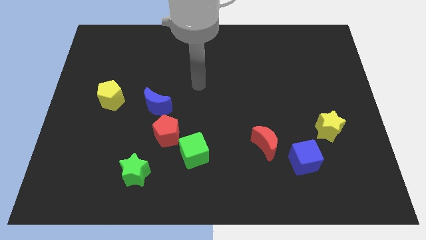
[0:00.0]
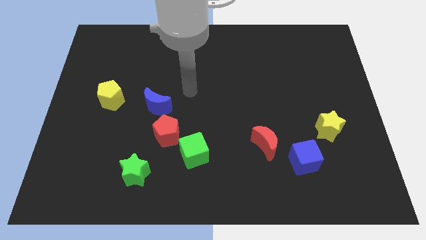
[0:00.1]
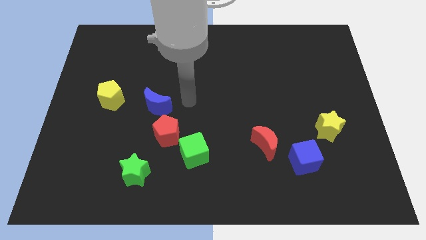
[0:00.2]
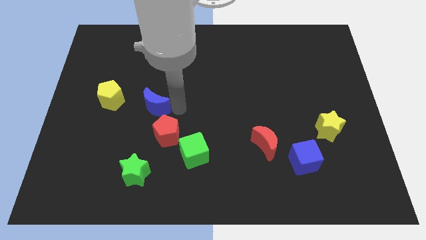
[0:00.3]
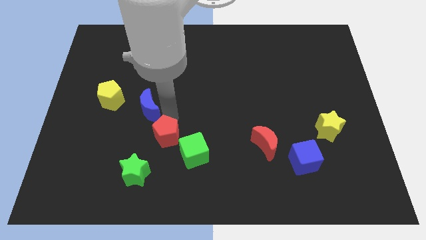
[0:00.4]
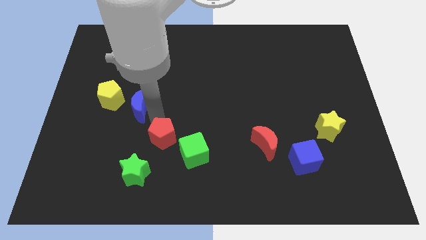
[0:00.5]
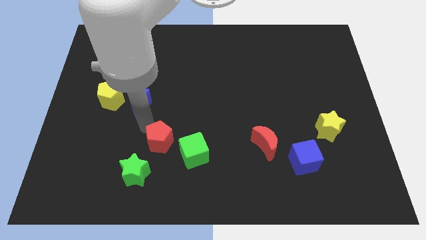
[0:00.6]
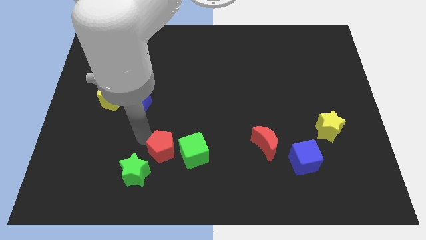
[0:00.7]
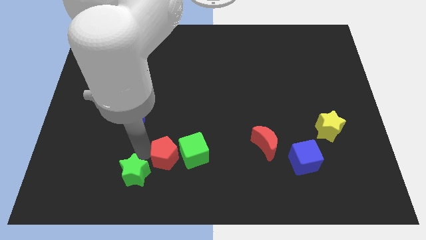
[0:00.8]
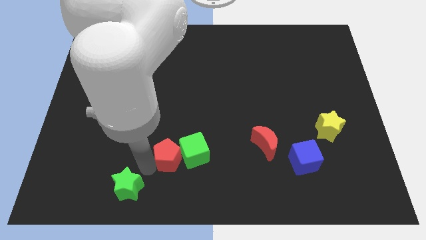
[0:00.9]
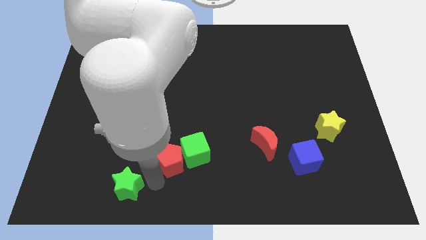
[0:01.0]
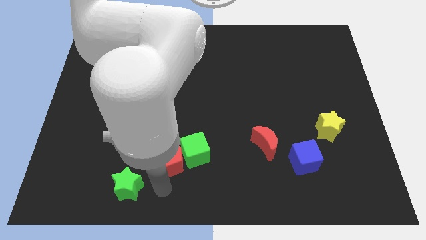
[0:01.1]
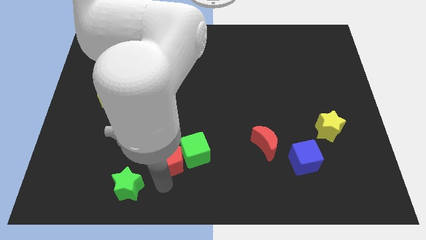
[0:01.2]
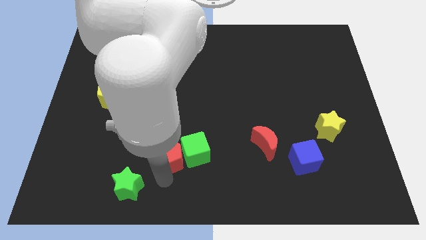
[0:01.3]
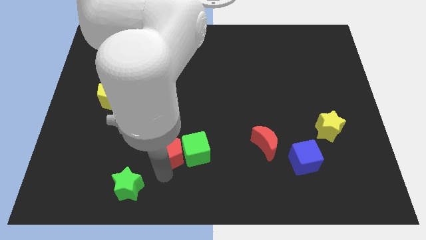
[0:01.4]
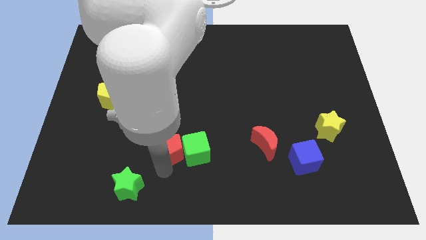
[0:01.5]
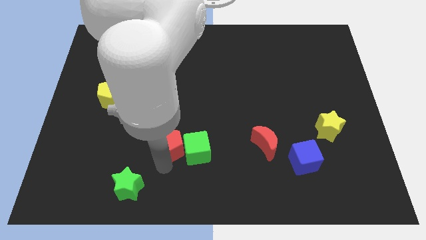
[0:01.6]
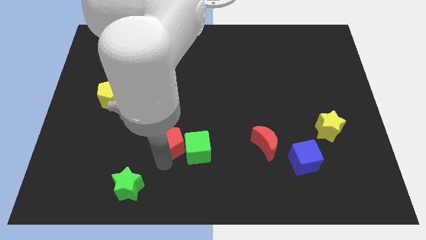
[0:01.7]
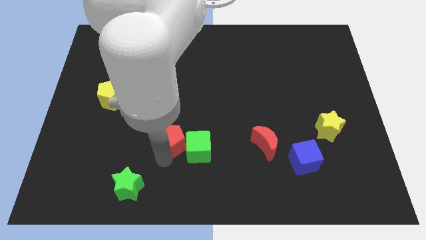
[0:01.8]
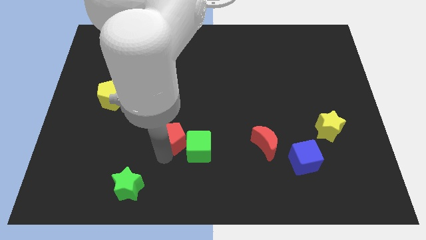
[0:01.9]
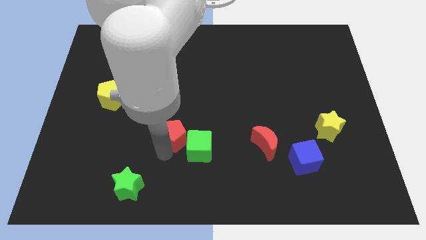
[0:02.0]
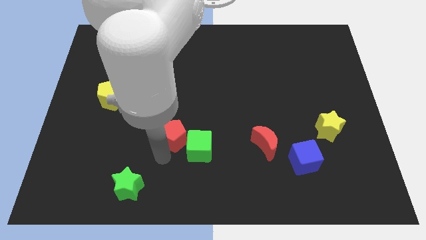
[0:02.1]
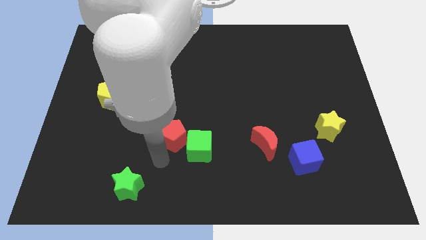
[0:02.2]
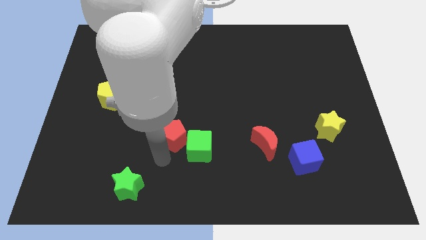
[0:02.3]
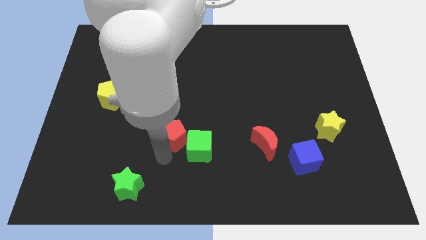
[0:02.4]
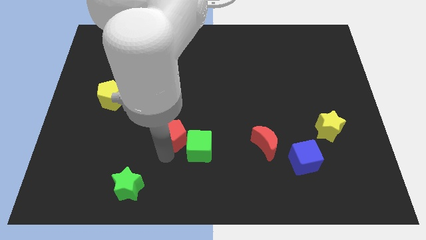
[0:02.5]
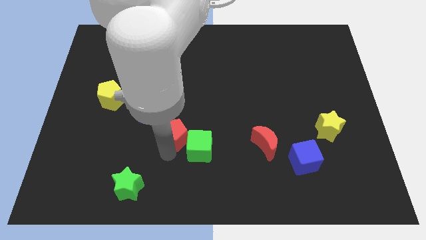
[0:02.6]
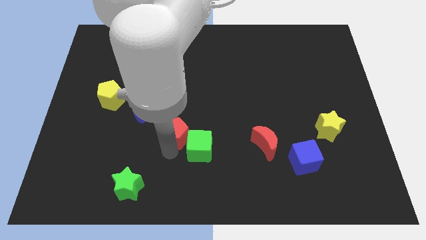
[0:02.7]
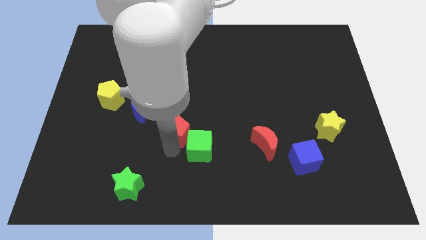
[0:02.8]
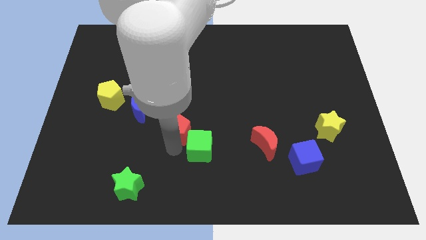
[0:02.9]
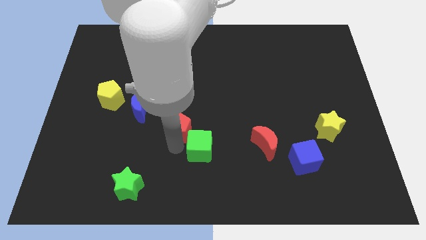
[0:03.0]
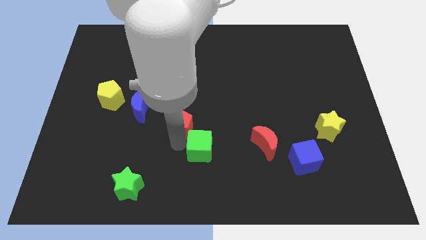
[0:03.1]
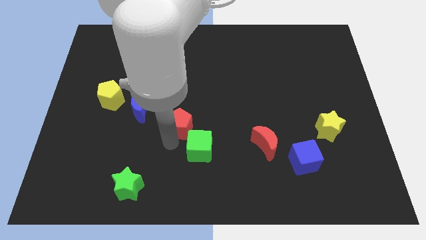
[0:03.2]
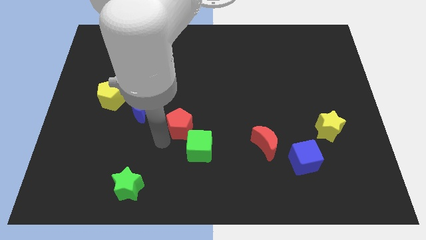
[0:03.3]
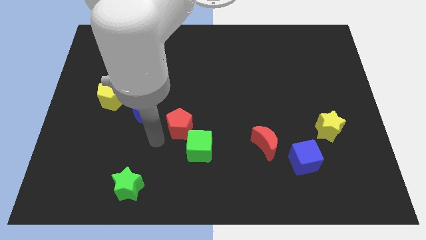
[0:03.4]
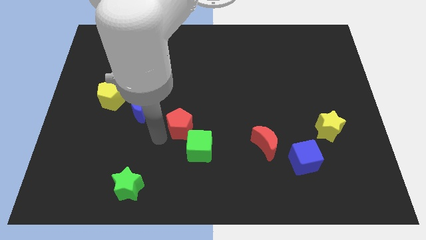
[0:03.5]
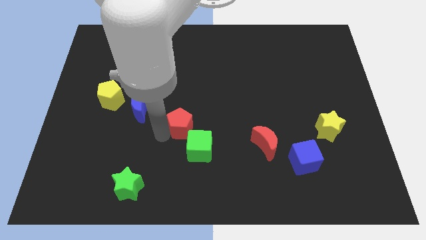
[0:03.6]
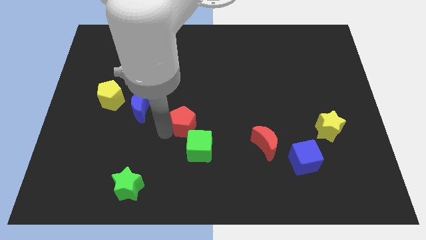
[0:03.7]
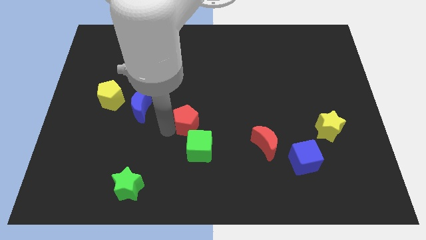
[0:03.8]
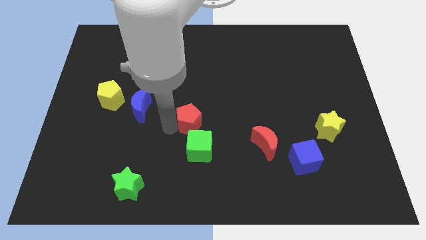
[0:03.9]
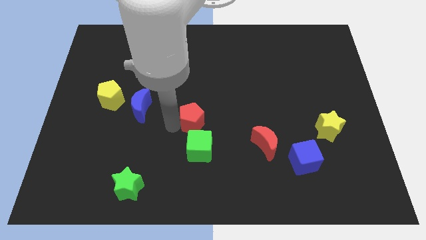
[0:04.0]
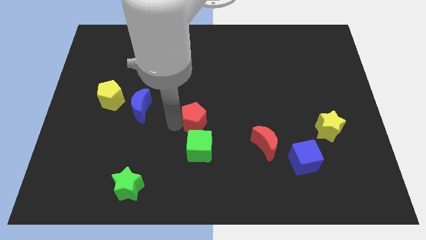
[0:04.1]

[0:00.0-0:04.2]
push the red pentagon up and to the right diagonally slightly

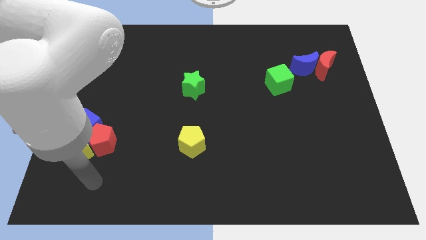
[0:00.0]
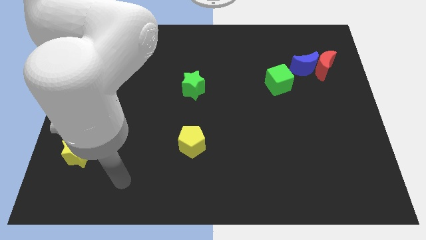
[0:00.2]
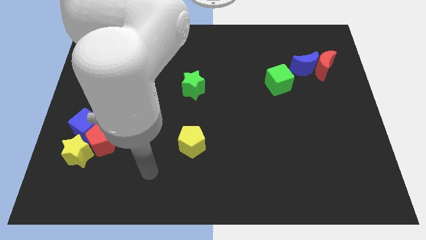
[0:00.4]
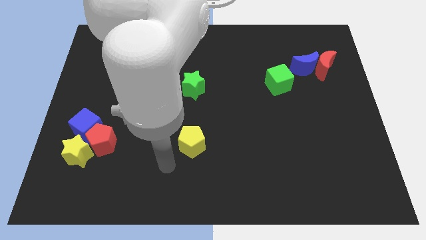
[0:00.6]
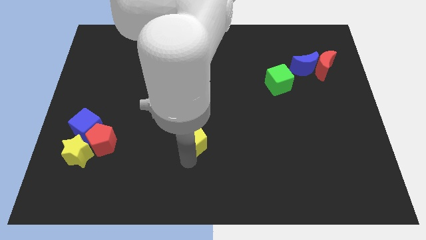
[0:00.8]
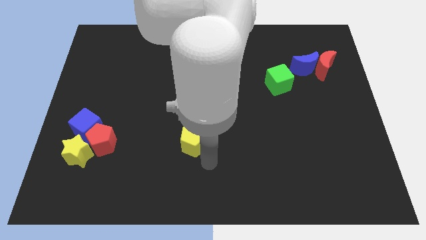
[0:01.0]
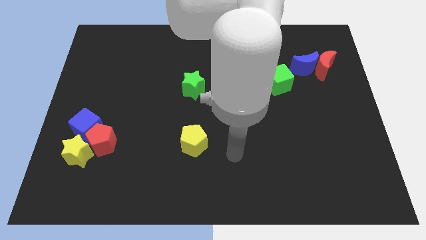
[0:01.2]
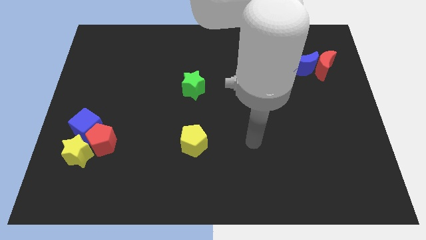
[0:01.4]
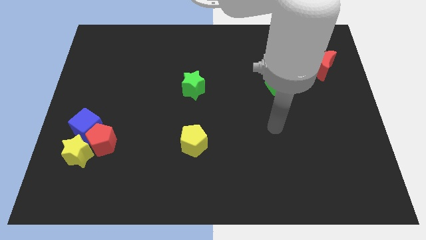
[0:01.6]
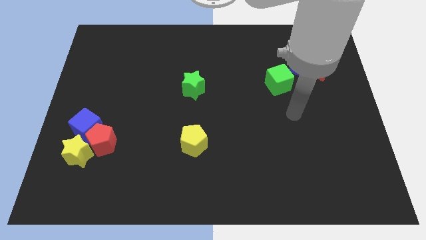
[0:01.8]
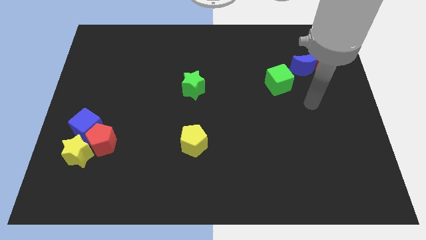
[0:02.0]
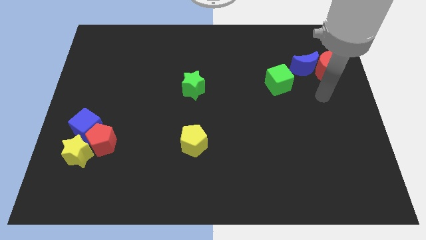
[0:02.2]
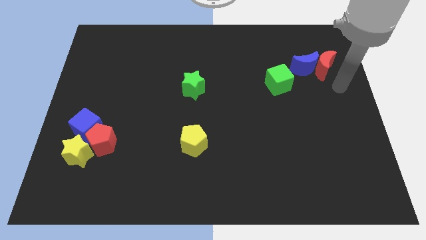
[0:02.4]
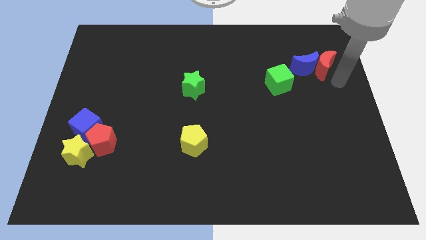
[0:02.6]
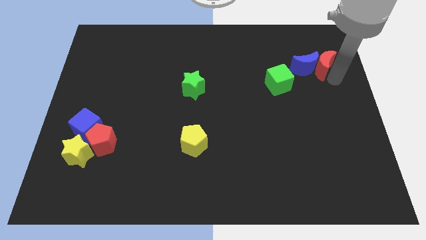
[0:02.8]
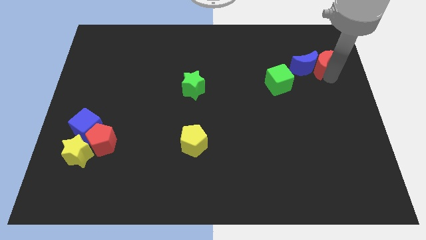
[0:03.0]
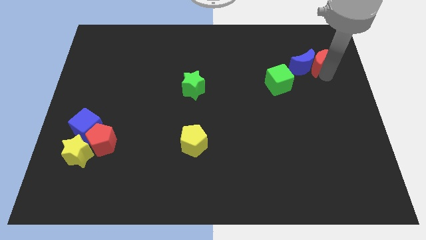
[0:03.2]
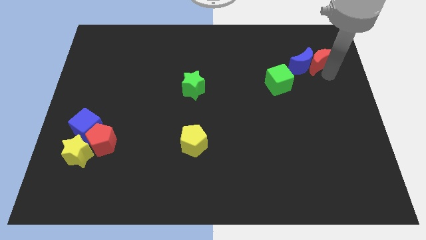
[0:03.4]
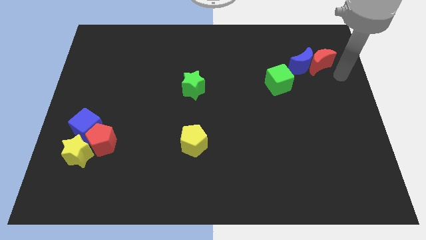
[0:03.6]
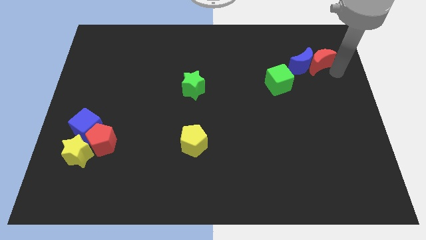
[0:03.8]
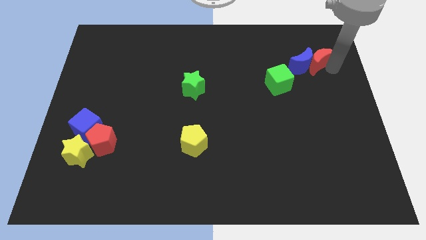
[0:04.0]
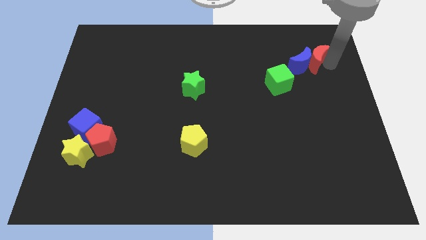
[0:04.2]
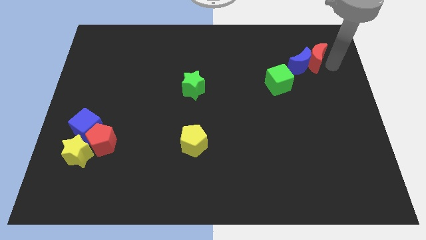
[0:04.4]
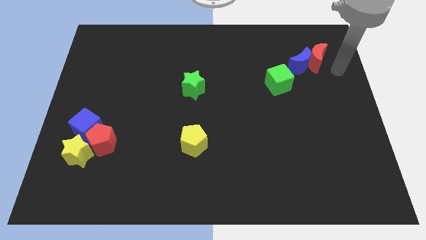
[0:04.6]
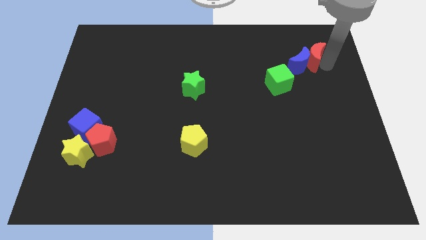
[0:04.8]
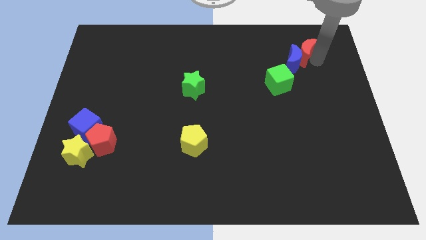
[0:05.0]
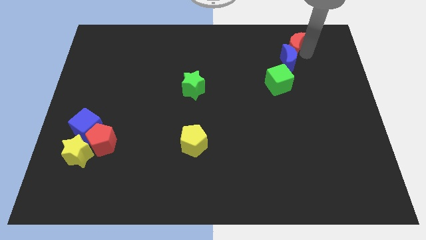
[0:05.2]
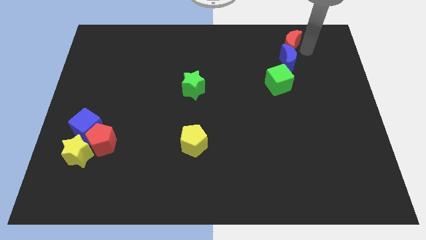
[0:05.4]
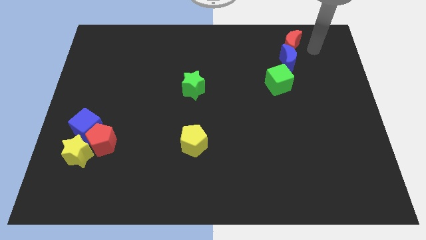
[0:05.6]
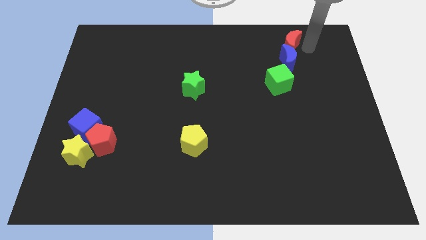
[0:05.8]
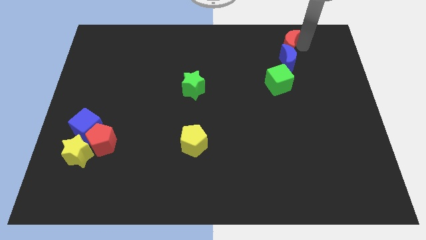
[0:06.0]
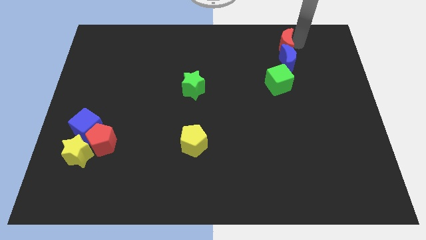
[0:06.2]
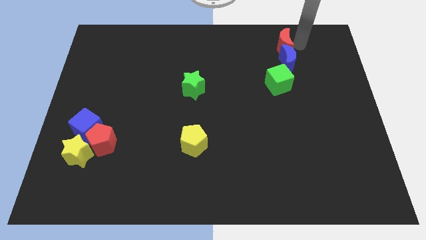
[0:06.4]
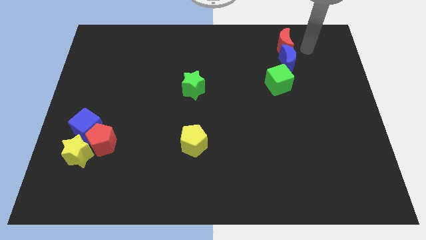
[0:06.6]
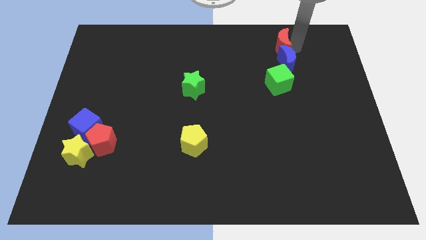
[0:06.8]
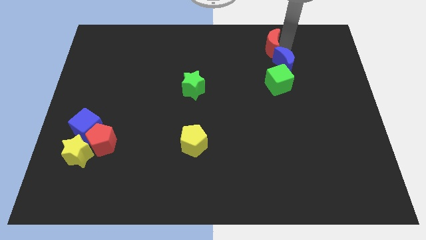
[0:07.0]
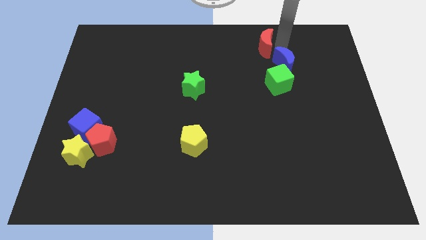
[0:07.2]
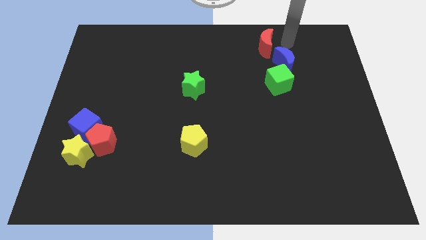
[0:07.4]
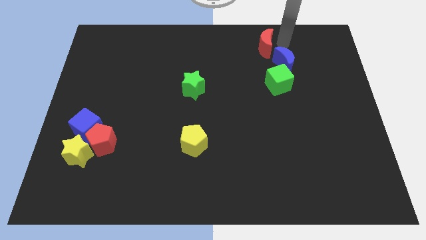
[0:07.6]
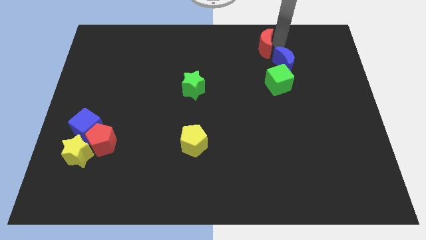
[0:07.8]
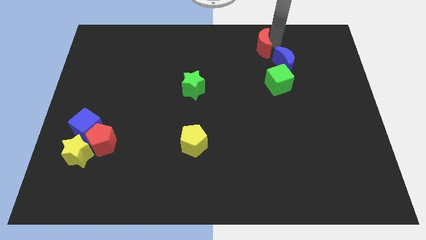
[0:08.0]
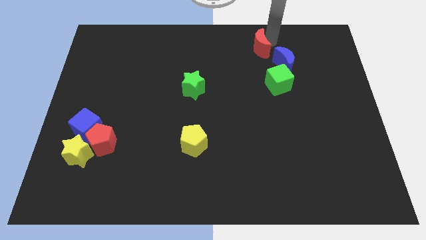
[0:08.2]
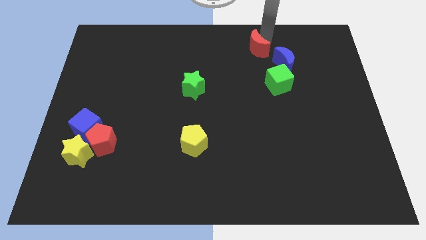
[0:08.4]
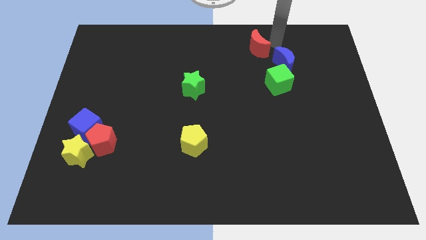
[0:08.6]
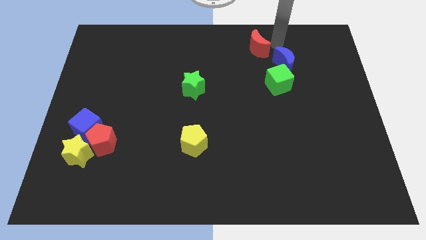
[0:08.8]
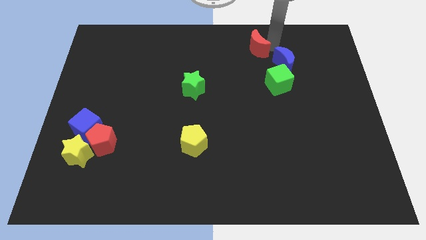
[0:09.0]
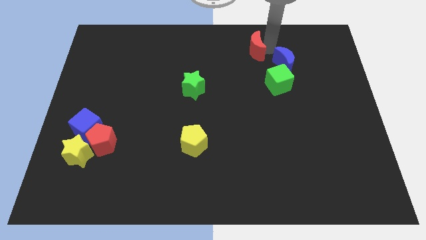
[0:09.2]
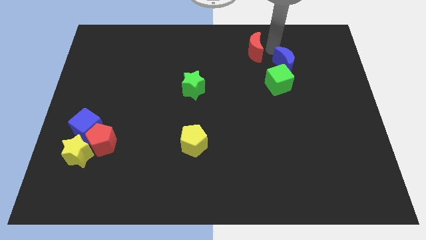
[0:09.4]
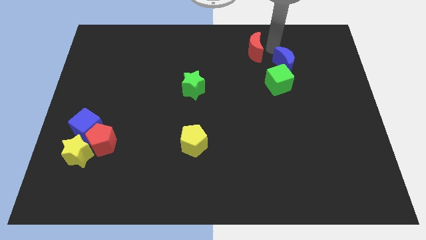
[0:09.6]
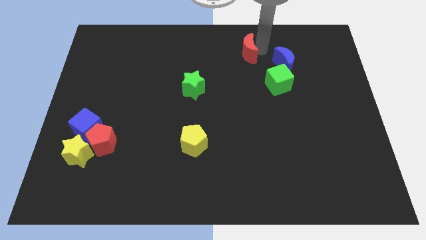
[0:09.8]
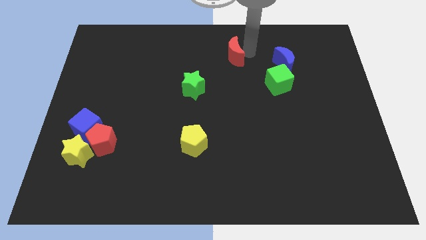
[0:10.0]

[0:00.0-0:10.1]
push the red moon to the left
